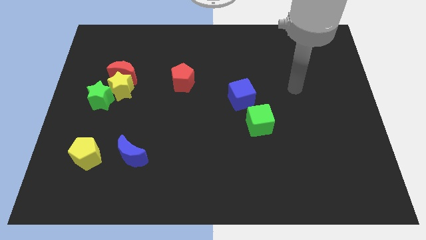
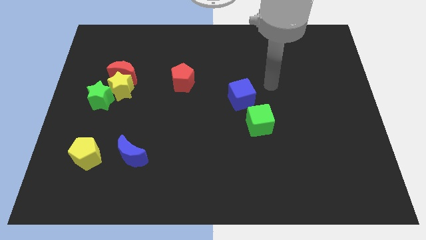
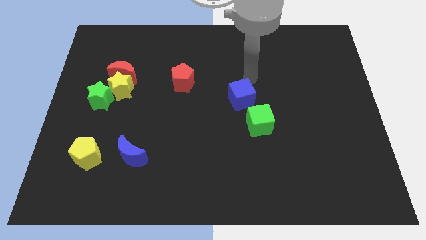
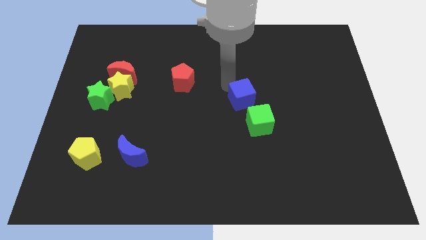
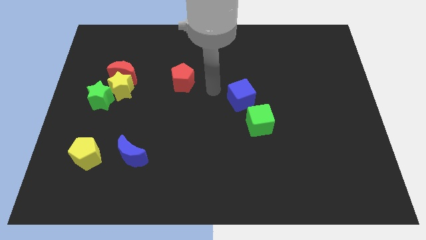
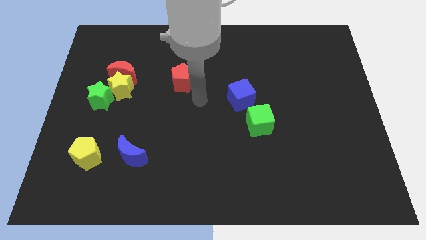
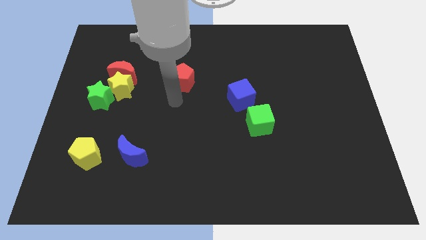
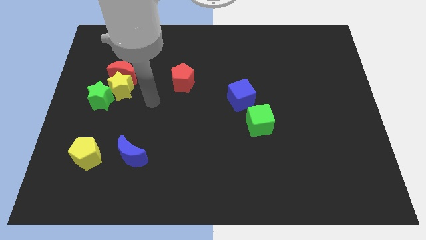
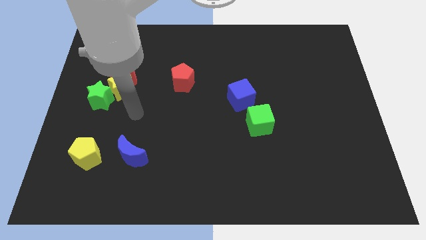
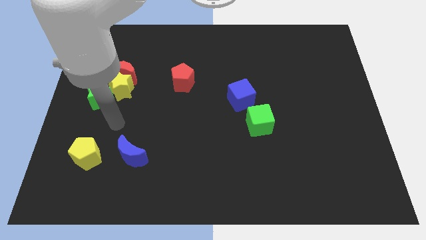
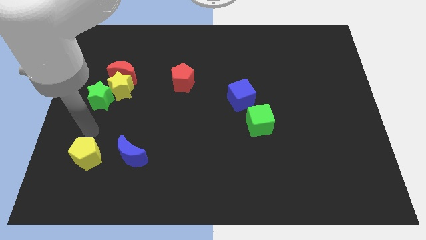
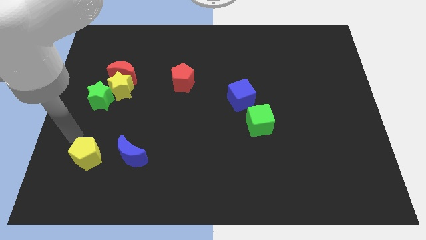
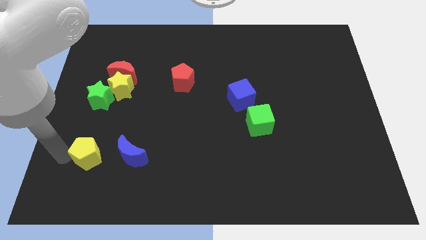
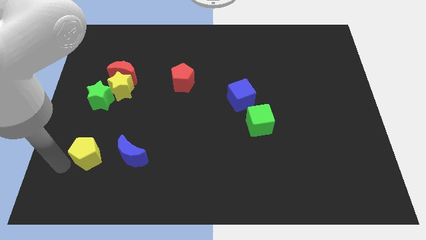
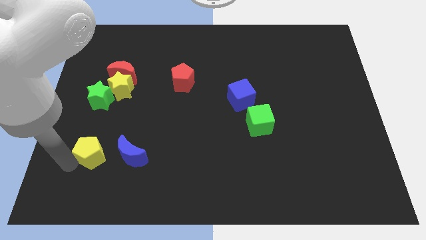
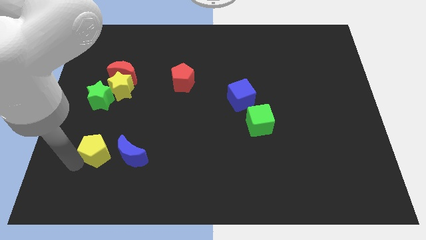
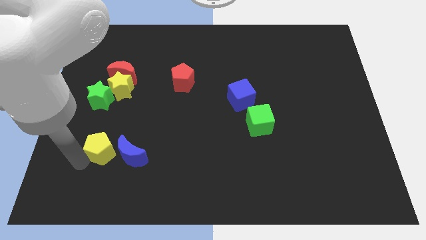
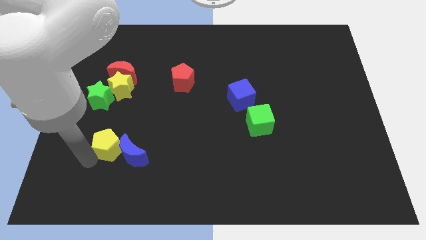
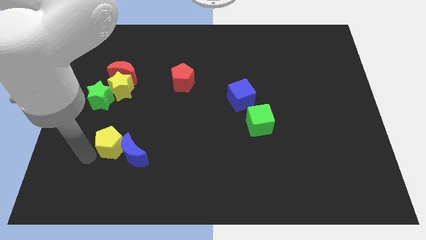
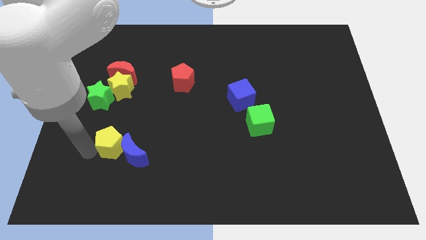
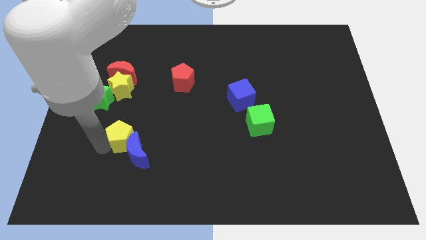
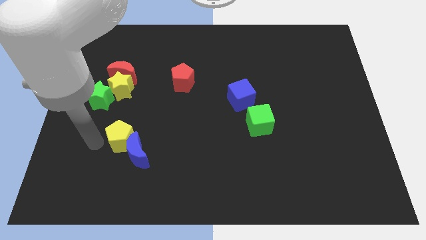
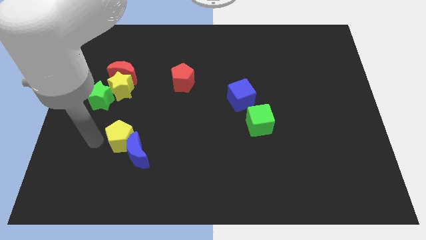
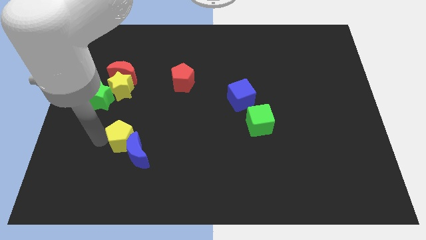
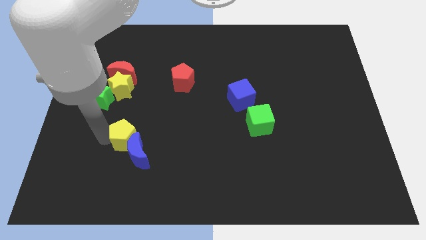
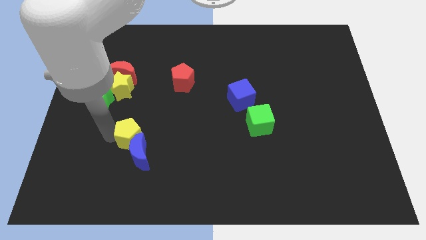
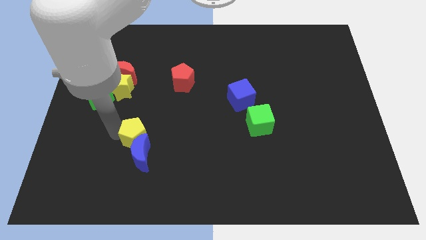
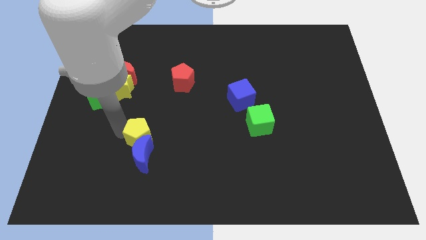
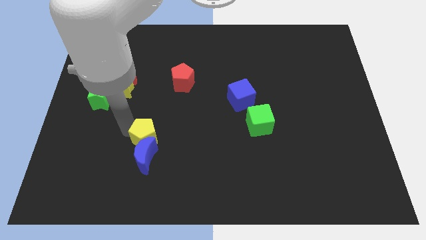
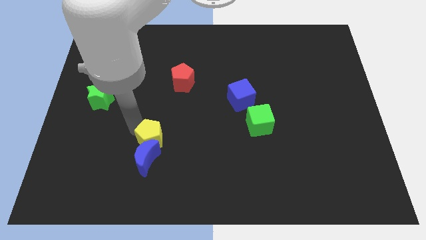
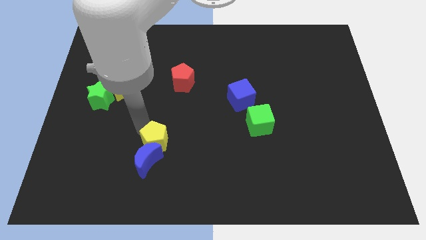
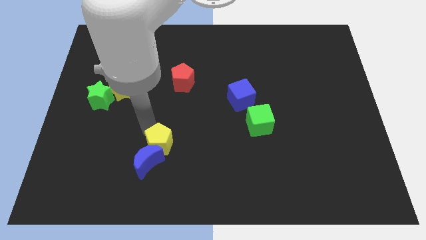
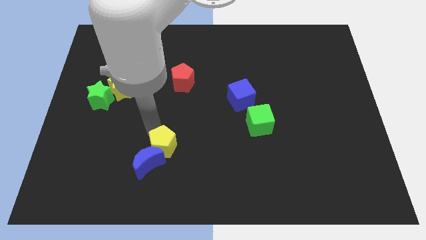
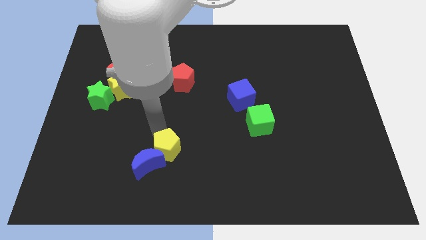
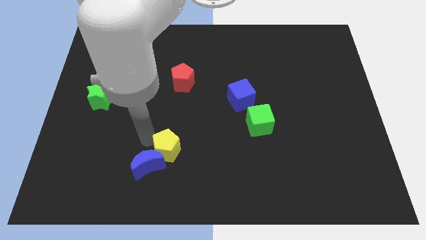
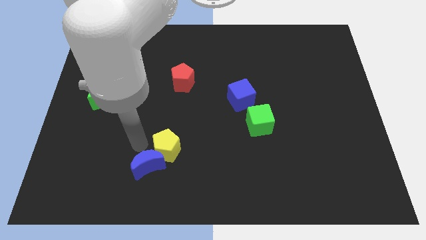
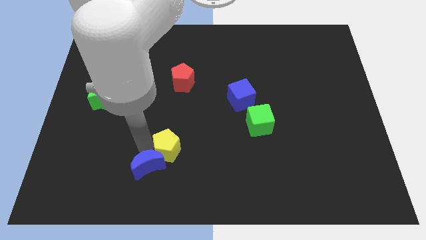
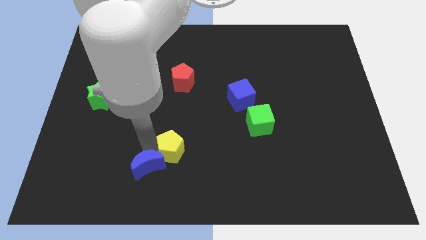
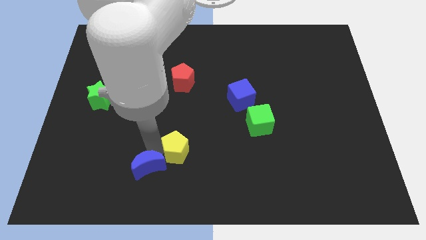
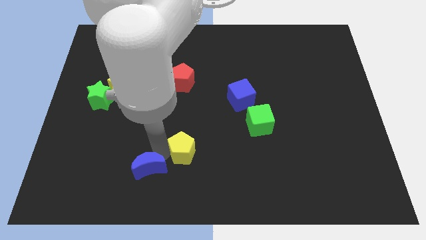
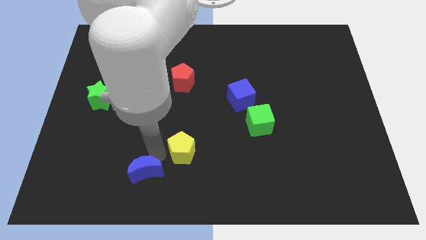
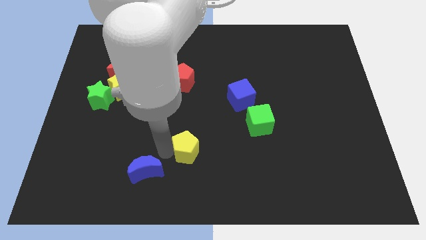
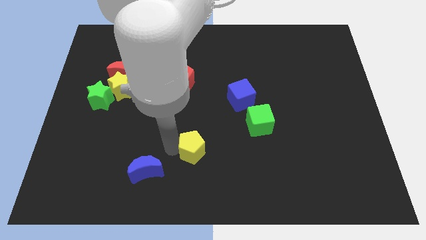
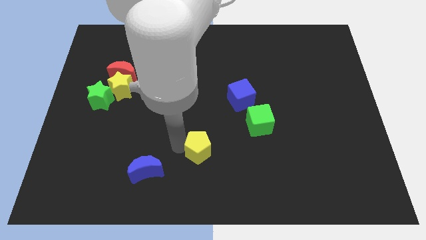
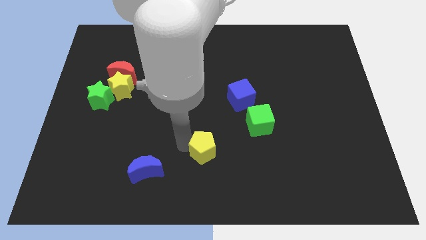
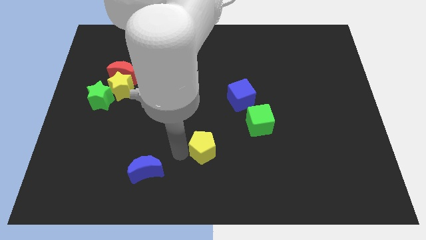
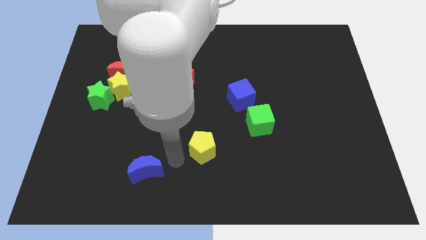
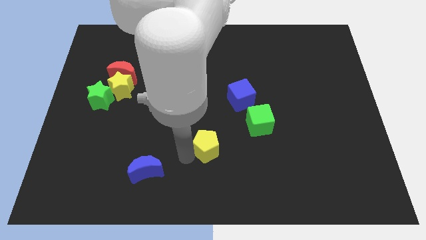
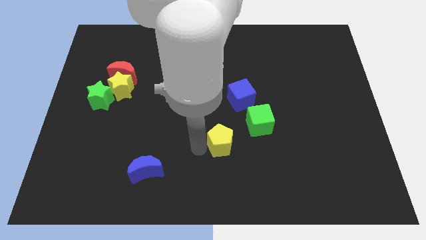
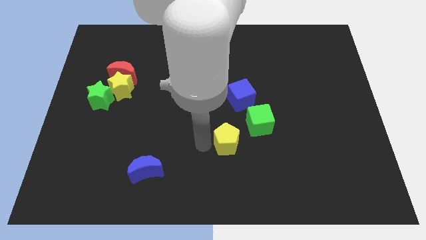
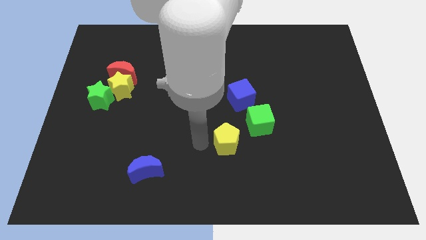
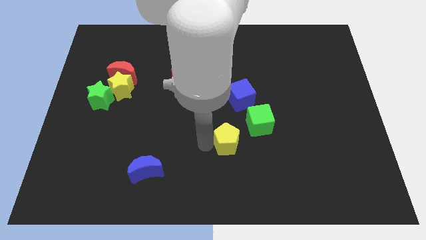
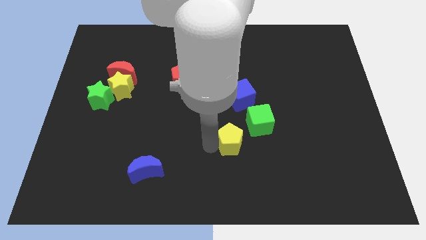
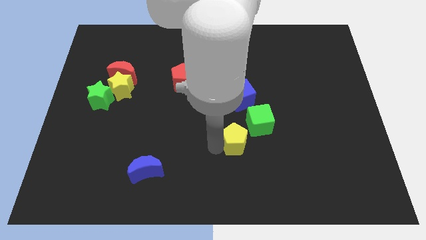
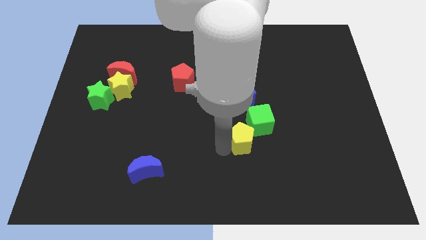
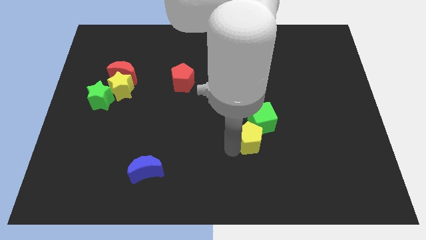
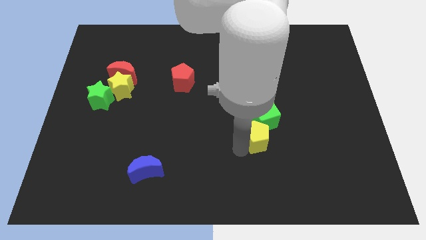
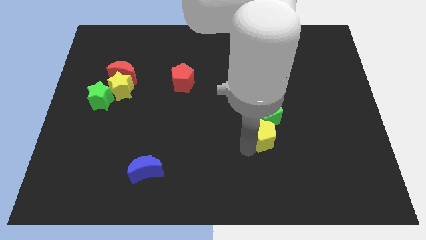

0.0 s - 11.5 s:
push the yellow pentagon to the bottom right side of the green cube
